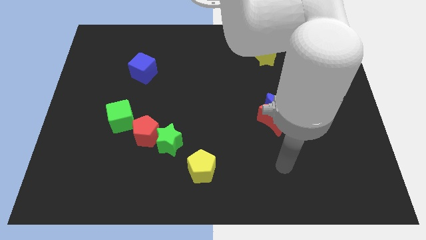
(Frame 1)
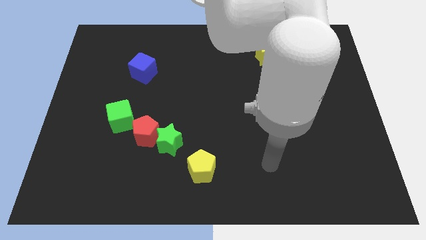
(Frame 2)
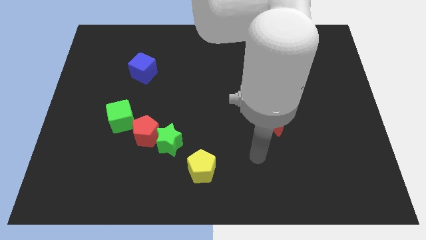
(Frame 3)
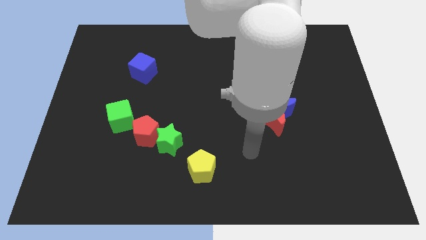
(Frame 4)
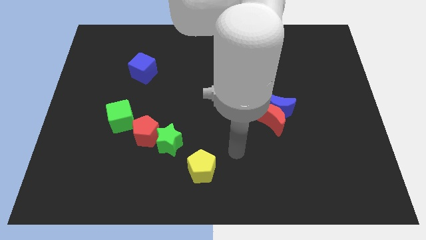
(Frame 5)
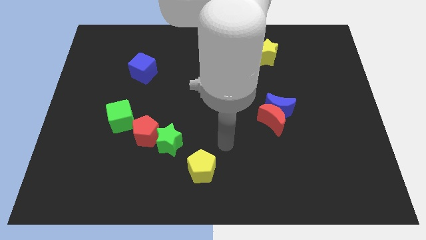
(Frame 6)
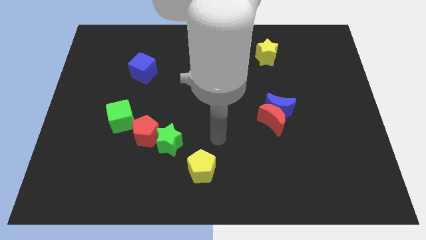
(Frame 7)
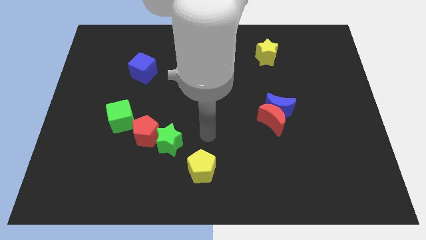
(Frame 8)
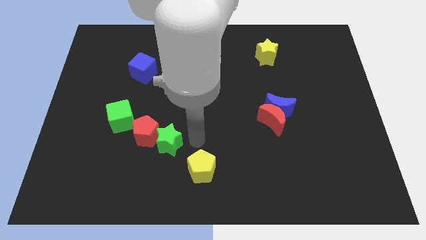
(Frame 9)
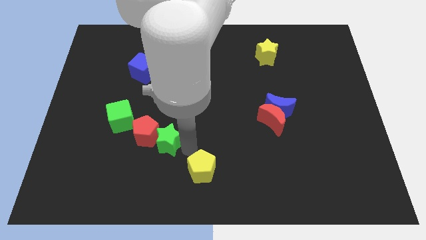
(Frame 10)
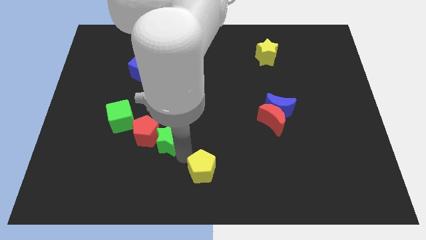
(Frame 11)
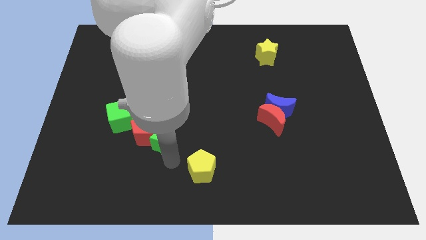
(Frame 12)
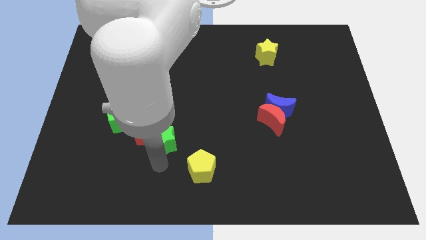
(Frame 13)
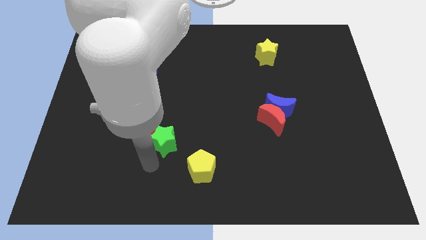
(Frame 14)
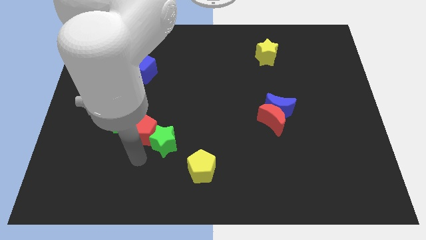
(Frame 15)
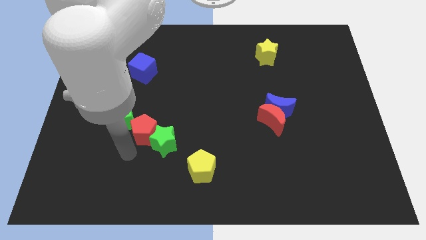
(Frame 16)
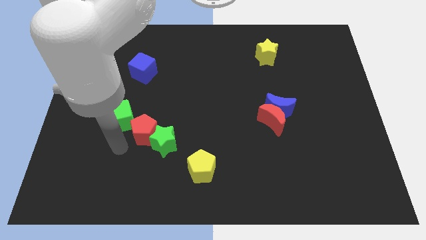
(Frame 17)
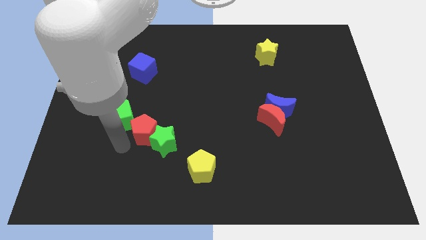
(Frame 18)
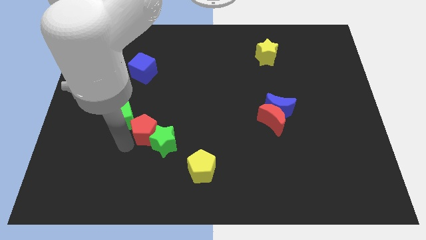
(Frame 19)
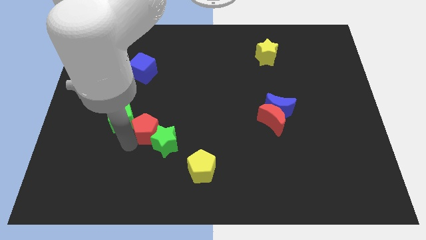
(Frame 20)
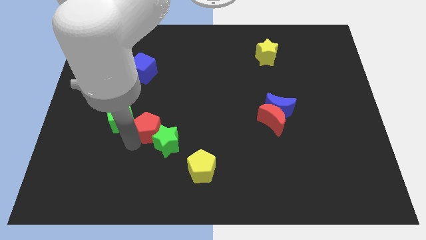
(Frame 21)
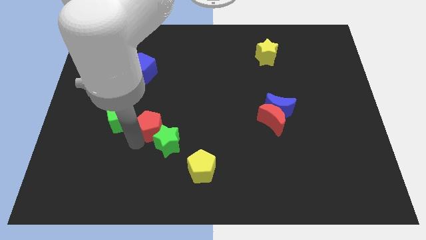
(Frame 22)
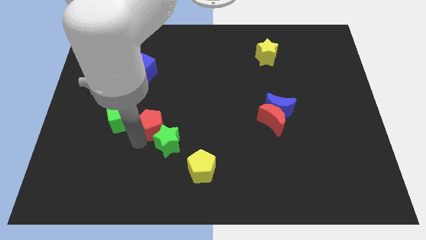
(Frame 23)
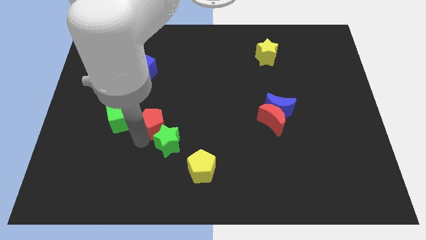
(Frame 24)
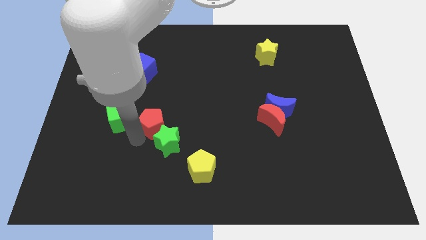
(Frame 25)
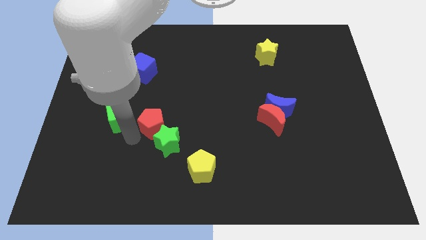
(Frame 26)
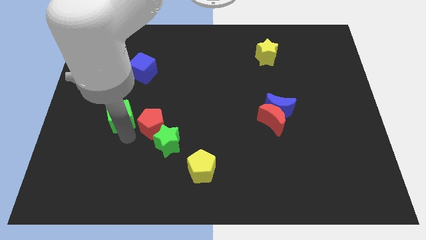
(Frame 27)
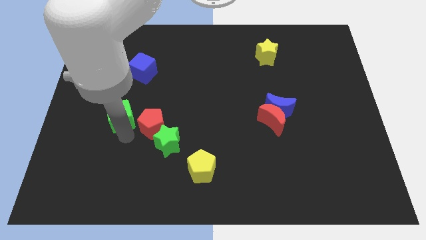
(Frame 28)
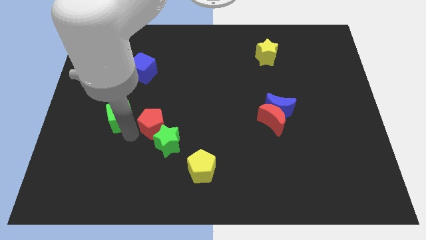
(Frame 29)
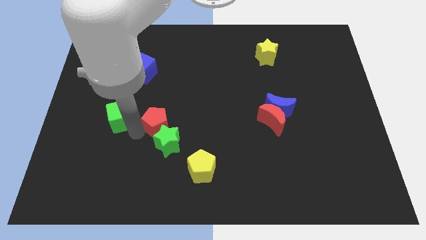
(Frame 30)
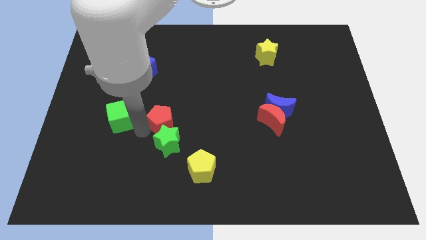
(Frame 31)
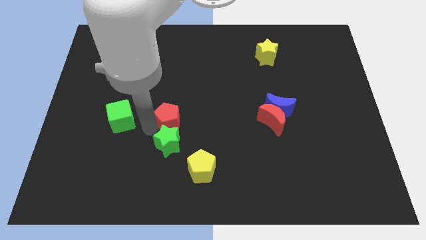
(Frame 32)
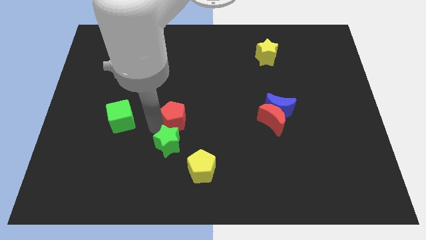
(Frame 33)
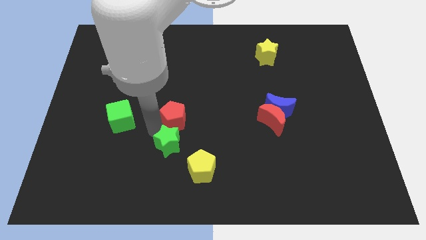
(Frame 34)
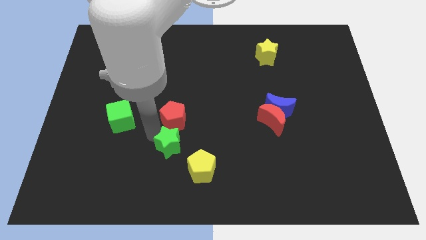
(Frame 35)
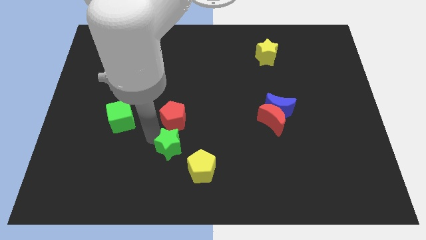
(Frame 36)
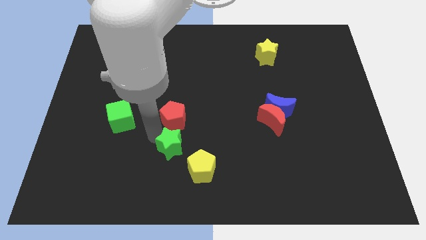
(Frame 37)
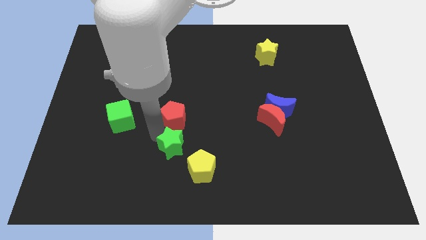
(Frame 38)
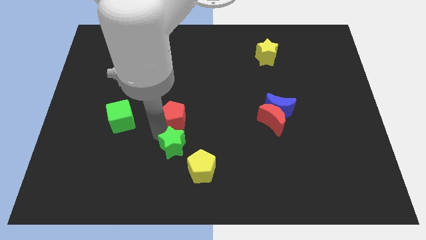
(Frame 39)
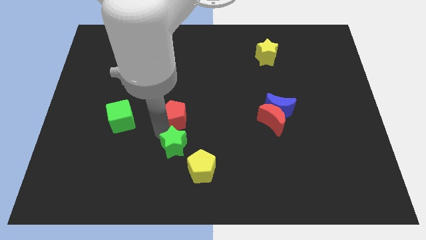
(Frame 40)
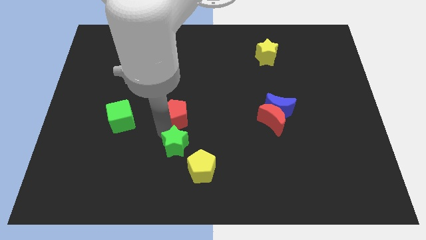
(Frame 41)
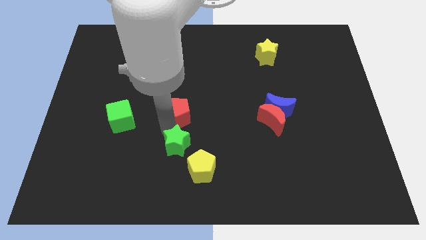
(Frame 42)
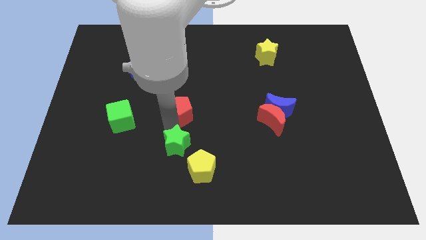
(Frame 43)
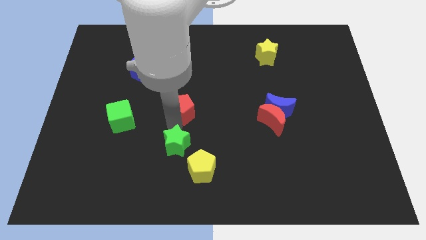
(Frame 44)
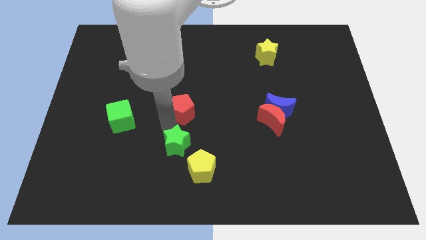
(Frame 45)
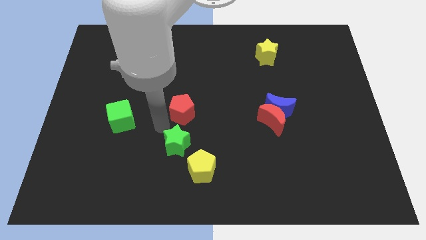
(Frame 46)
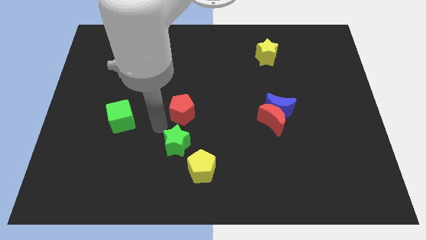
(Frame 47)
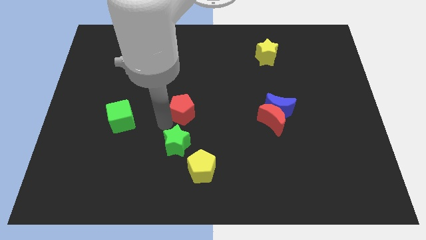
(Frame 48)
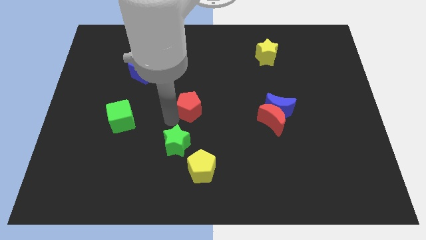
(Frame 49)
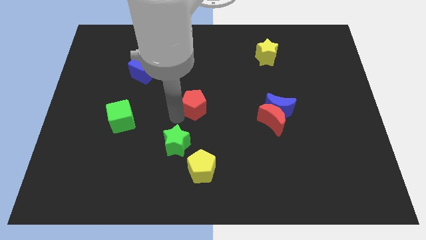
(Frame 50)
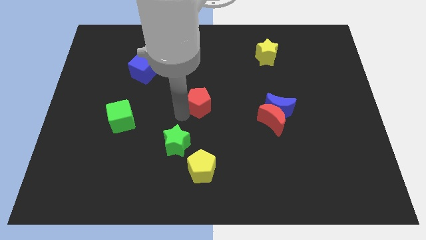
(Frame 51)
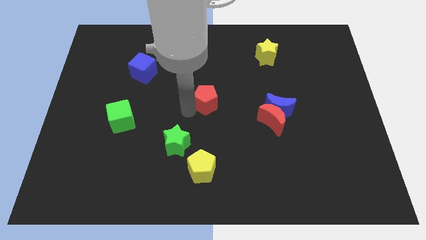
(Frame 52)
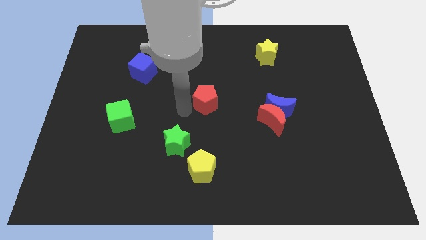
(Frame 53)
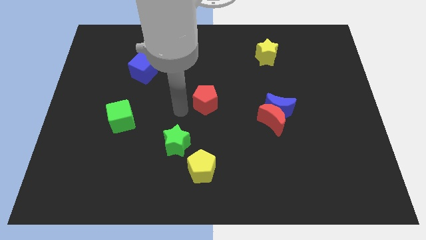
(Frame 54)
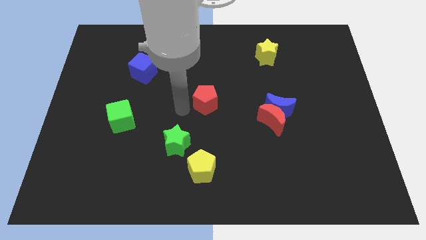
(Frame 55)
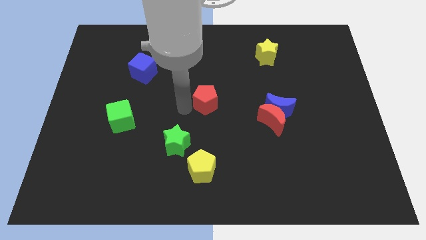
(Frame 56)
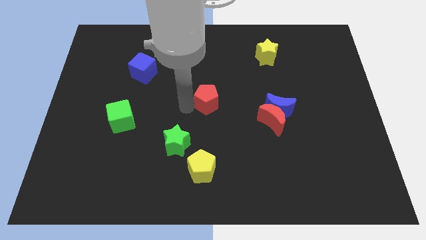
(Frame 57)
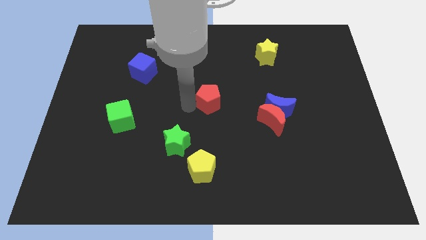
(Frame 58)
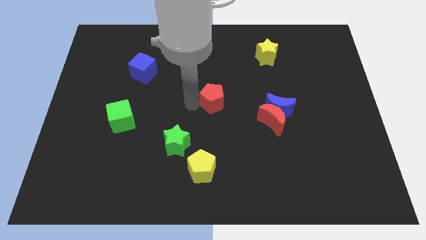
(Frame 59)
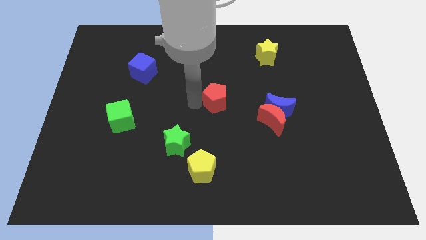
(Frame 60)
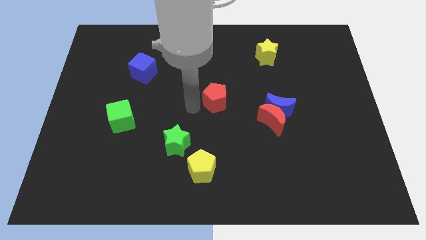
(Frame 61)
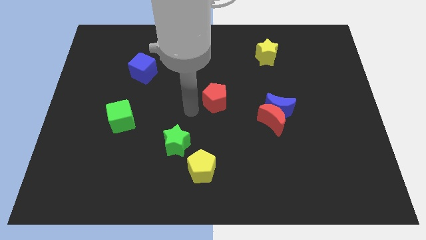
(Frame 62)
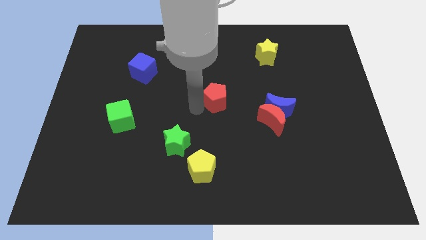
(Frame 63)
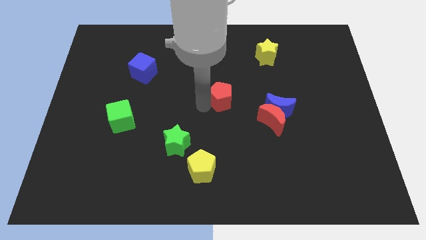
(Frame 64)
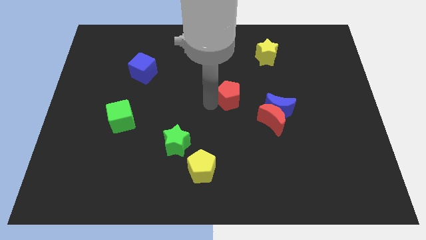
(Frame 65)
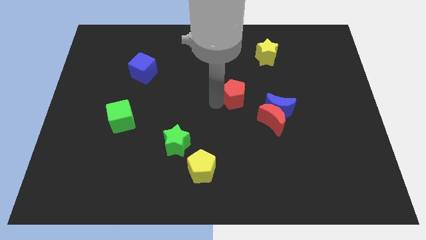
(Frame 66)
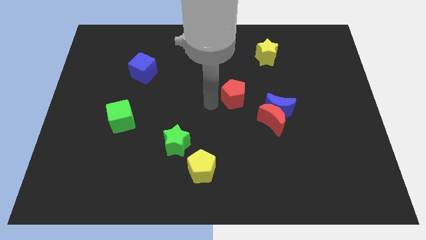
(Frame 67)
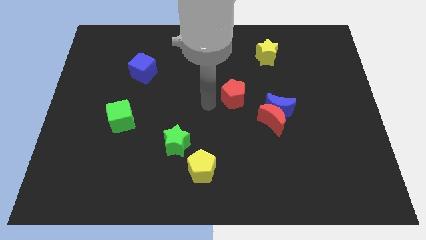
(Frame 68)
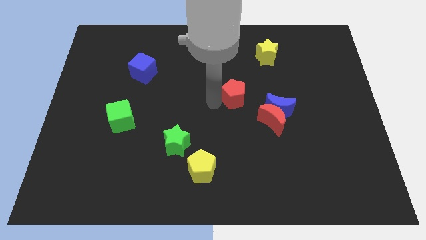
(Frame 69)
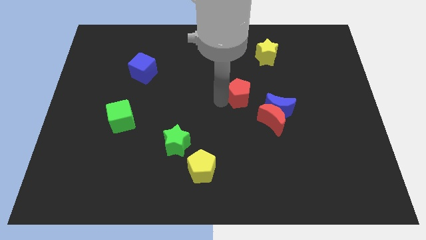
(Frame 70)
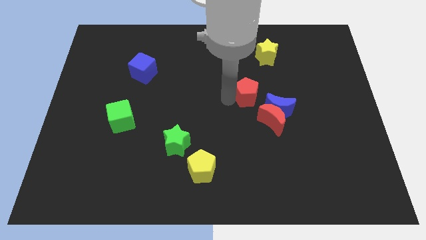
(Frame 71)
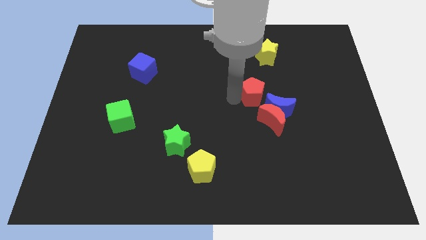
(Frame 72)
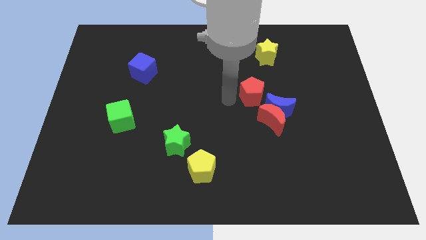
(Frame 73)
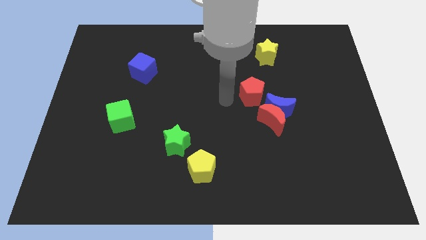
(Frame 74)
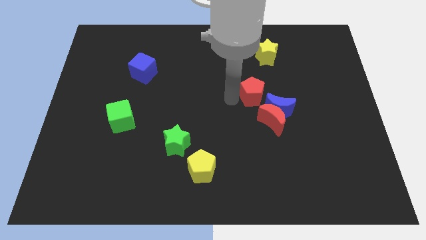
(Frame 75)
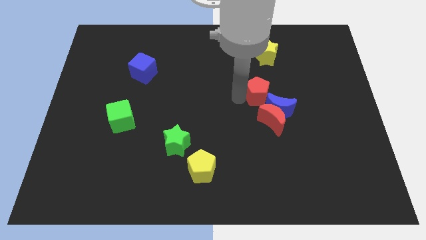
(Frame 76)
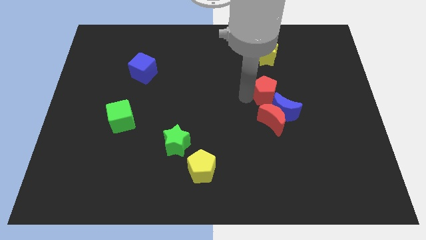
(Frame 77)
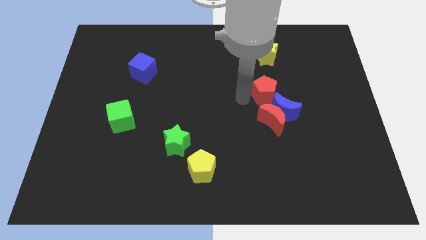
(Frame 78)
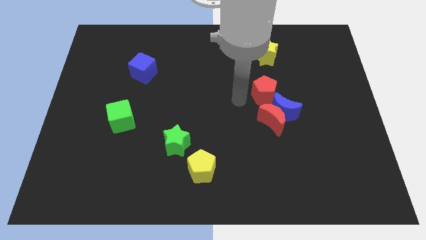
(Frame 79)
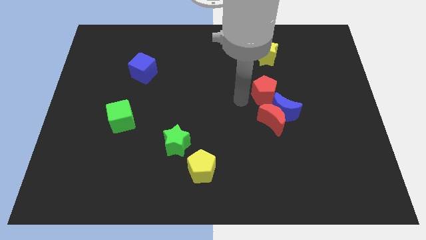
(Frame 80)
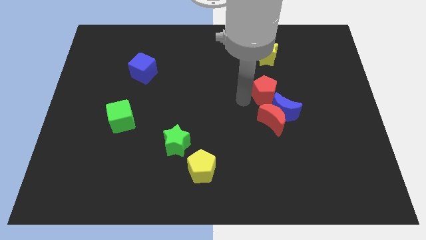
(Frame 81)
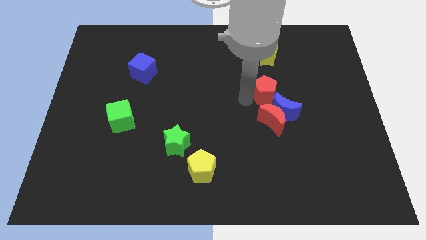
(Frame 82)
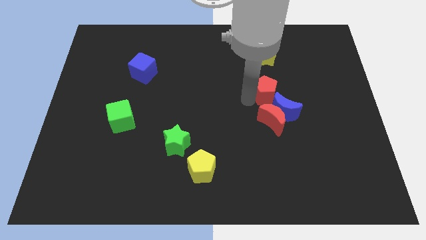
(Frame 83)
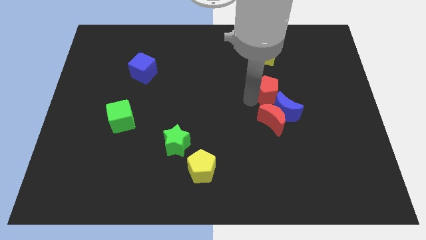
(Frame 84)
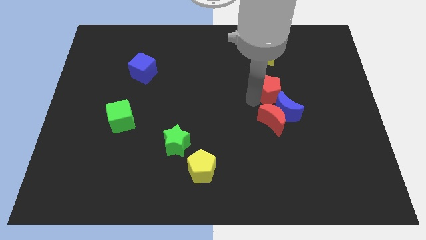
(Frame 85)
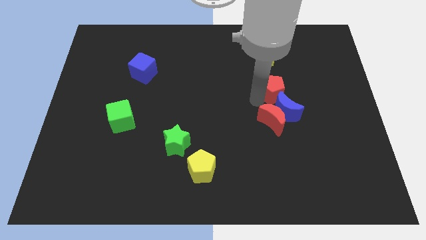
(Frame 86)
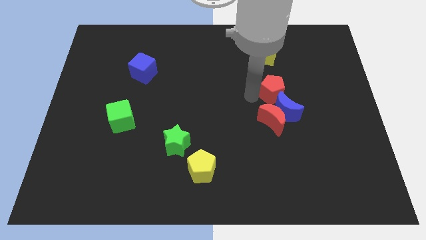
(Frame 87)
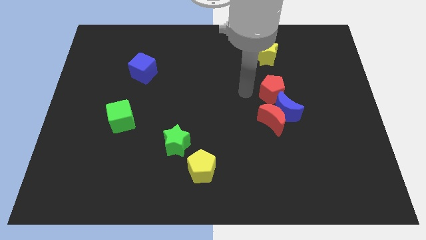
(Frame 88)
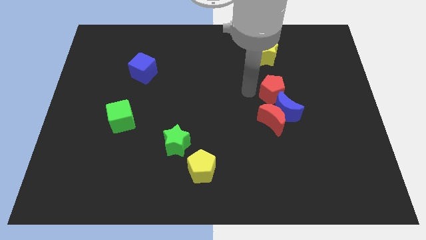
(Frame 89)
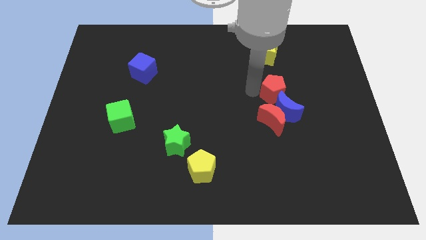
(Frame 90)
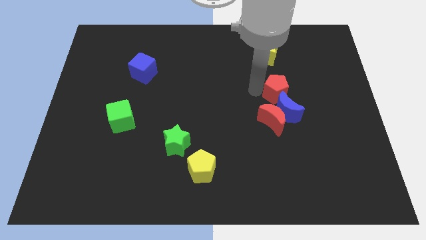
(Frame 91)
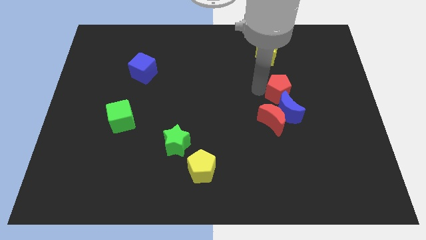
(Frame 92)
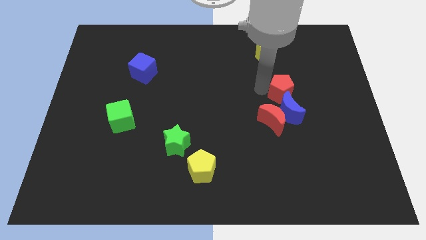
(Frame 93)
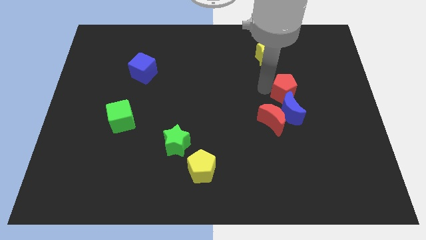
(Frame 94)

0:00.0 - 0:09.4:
move the red pentagon to the top right of the blue moon
